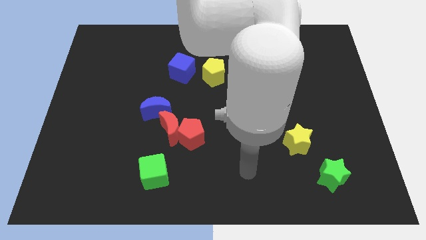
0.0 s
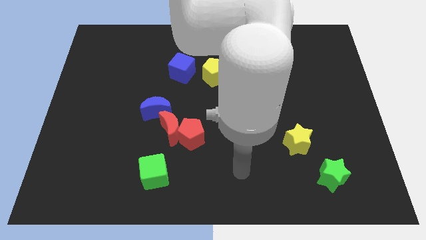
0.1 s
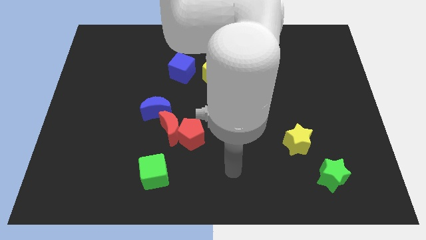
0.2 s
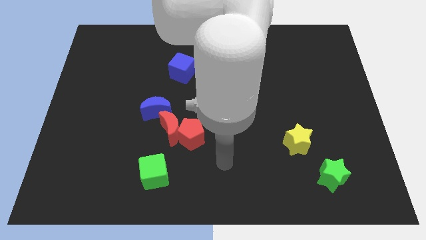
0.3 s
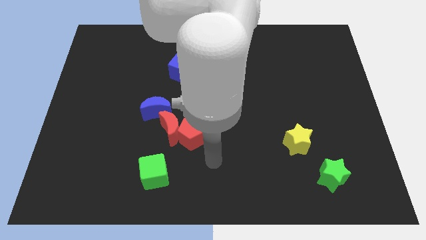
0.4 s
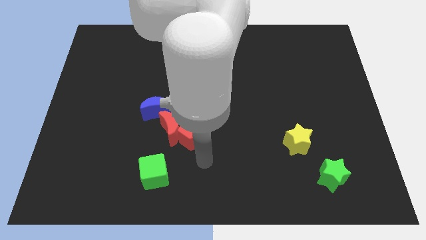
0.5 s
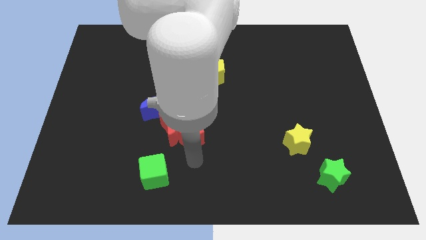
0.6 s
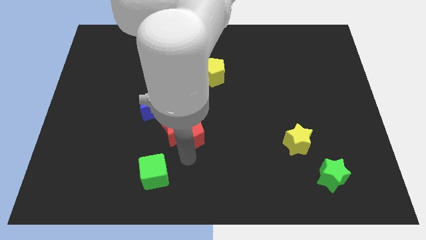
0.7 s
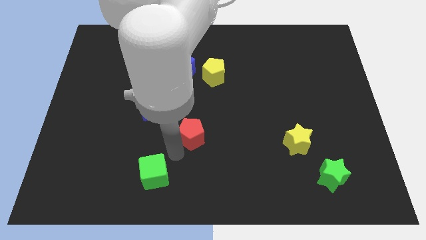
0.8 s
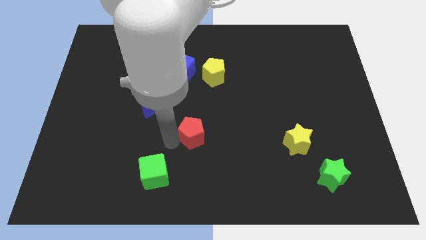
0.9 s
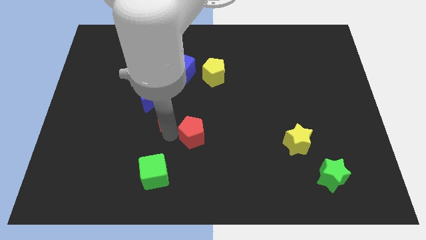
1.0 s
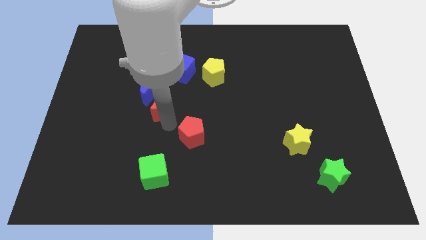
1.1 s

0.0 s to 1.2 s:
separate the red pentagon from the red moon

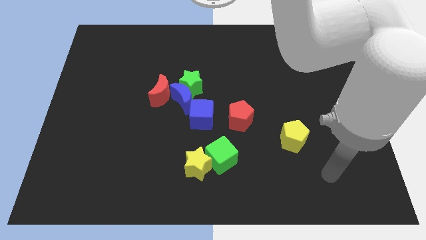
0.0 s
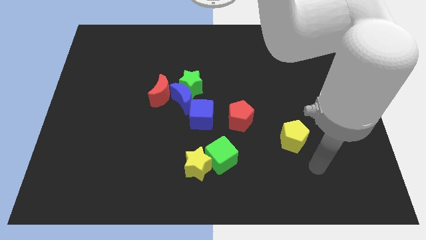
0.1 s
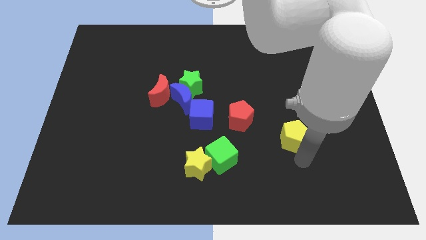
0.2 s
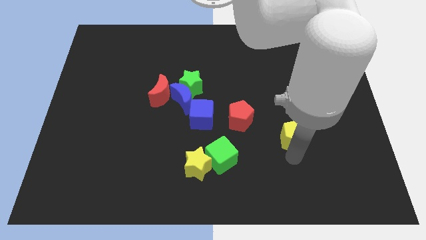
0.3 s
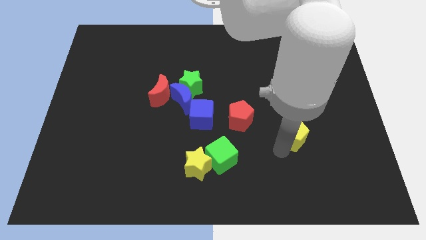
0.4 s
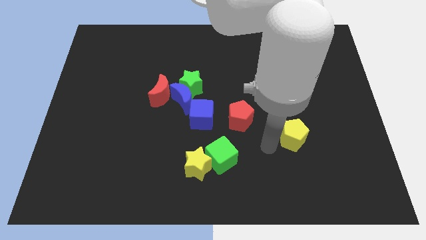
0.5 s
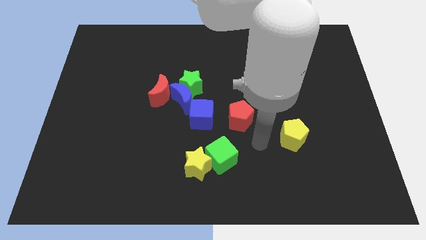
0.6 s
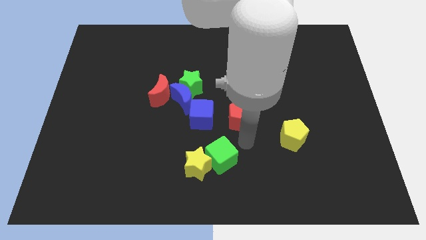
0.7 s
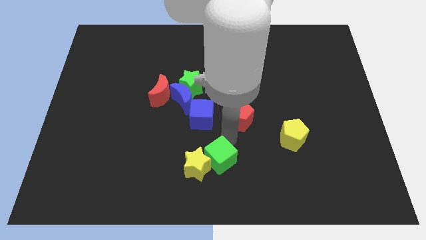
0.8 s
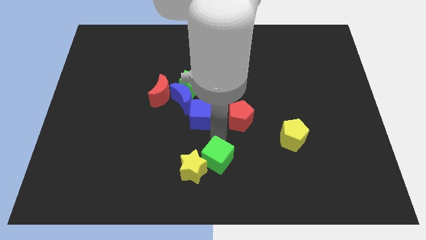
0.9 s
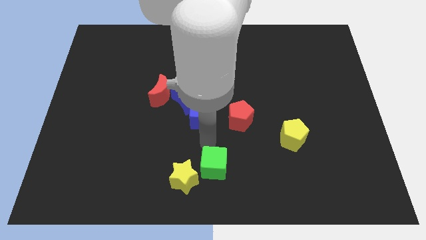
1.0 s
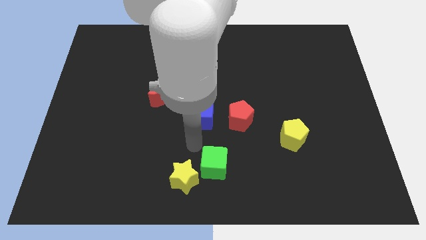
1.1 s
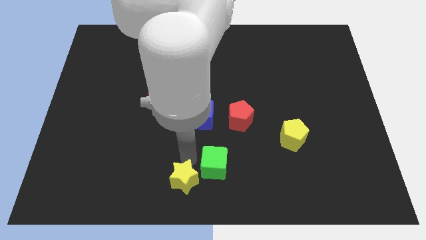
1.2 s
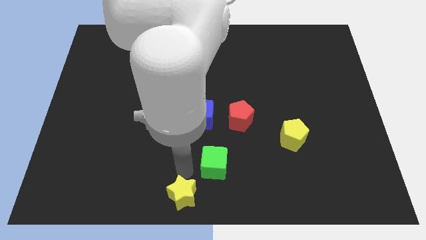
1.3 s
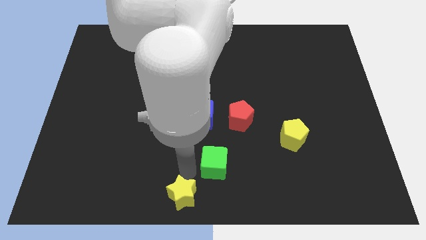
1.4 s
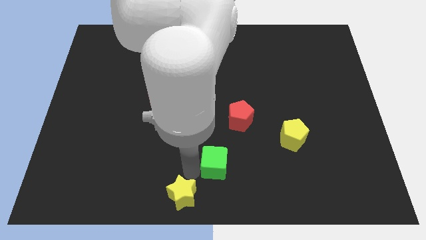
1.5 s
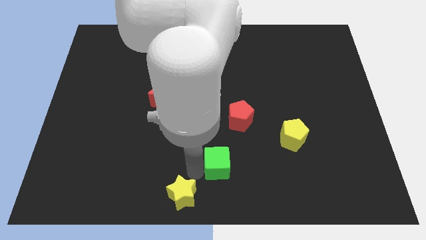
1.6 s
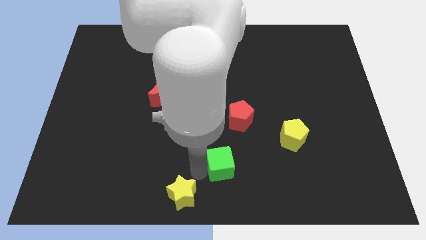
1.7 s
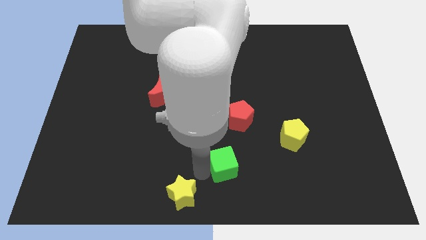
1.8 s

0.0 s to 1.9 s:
separate the green cube from the yellow star

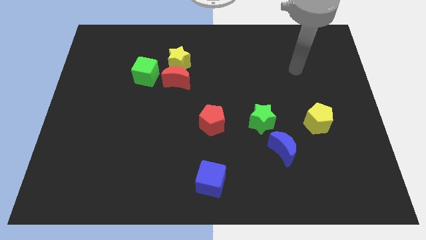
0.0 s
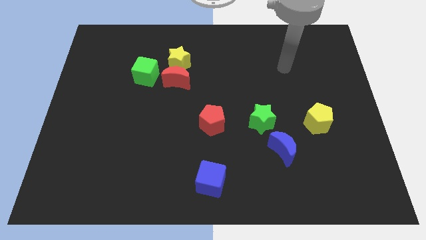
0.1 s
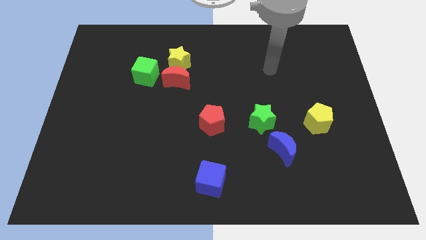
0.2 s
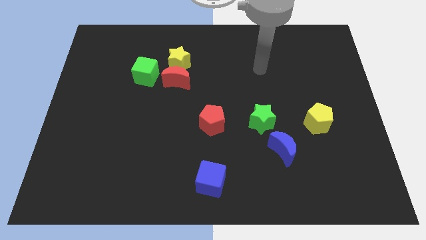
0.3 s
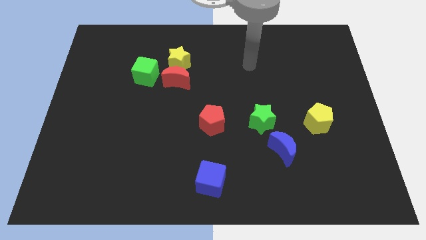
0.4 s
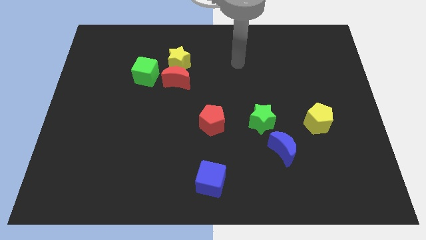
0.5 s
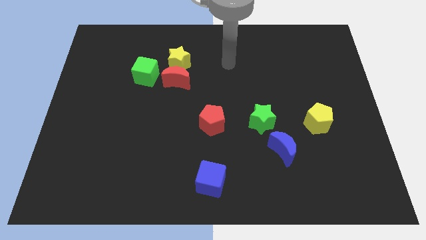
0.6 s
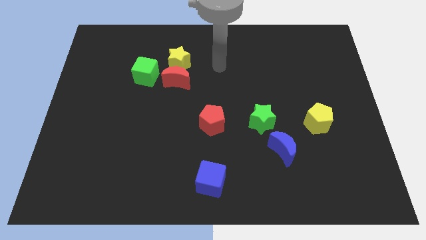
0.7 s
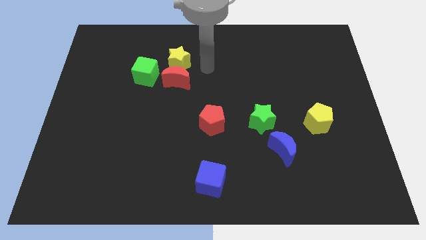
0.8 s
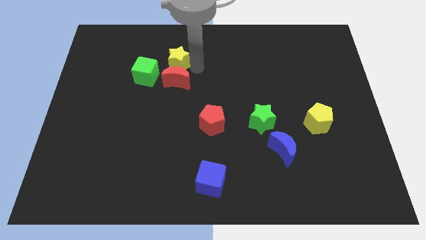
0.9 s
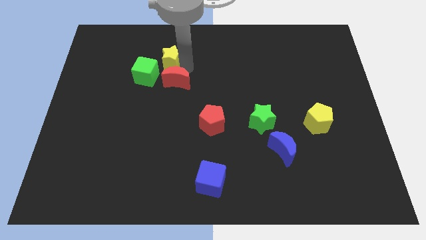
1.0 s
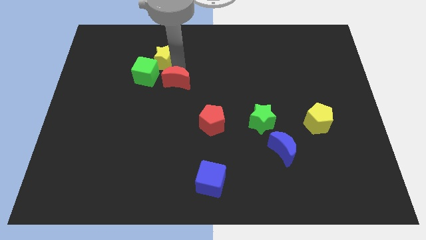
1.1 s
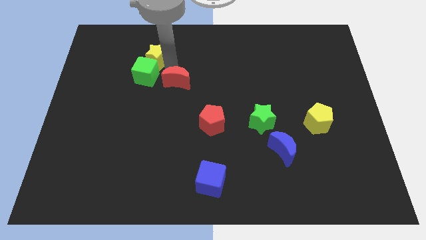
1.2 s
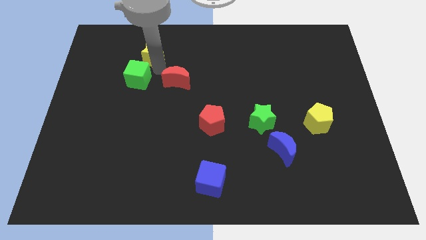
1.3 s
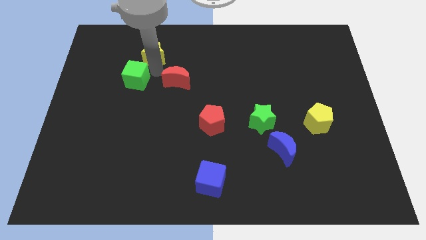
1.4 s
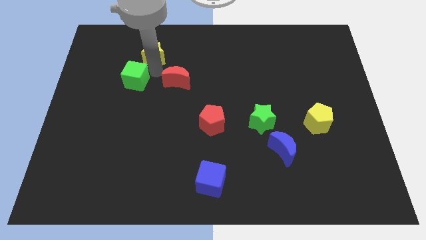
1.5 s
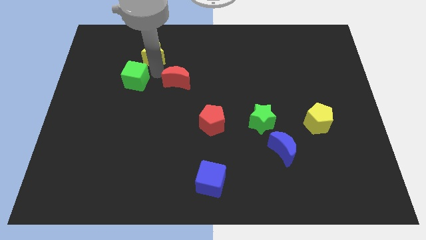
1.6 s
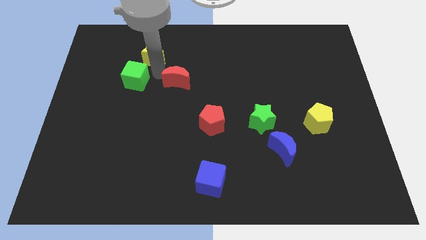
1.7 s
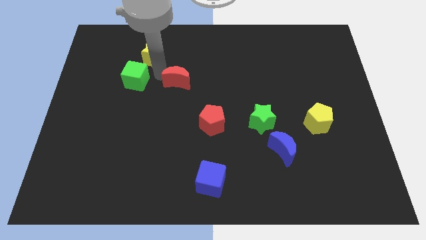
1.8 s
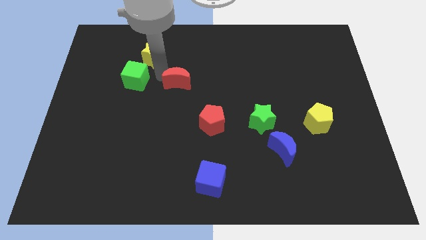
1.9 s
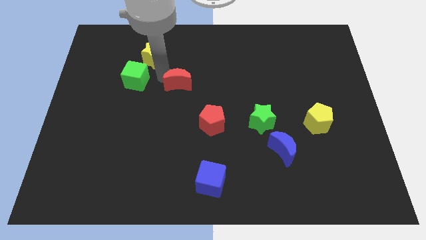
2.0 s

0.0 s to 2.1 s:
move the red moon away from the yellow star and green cube

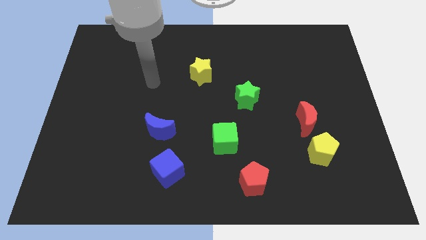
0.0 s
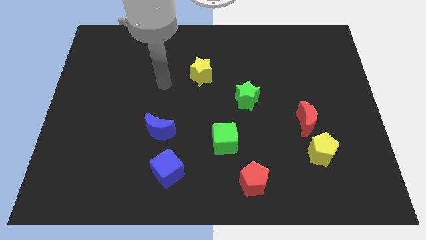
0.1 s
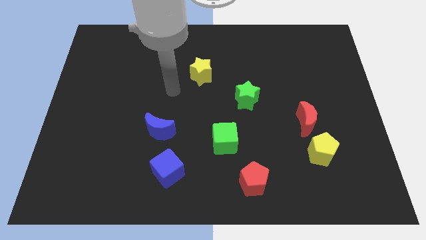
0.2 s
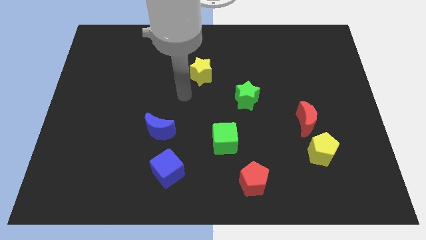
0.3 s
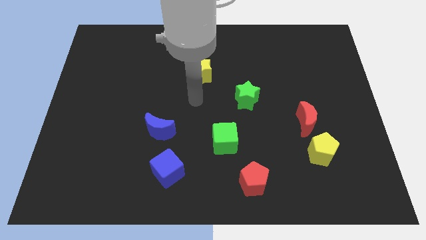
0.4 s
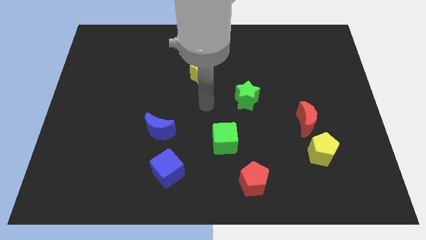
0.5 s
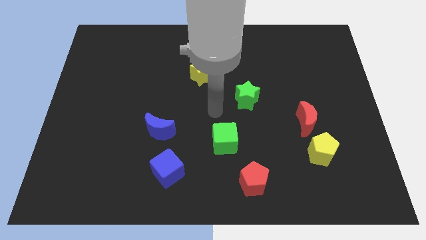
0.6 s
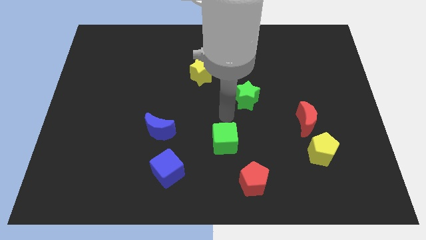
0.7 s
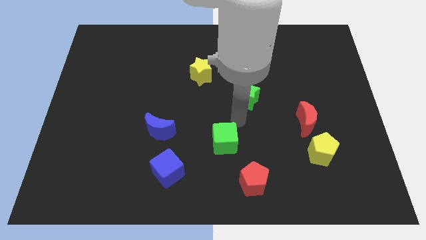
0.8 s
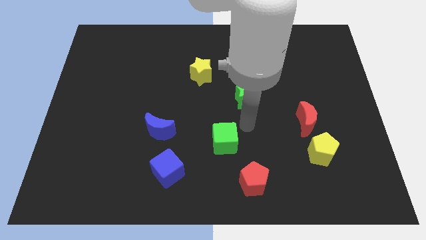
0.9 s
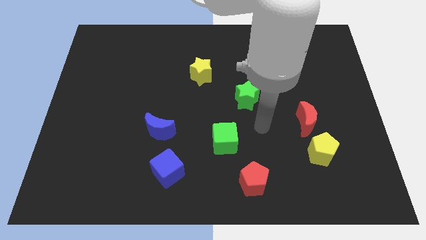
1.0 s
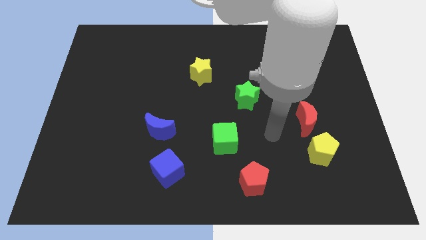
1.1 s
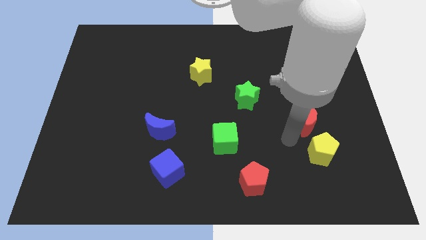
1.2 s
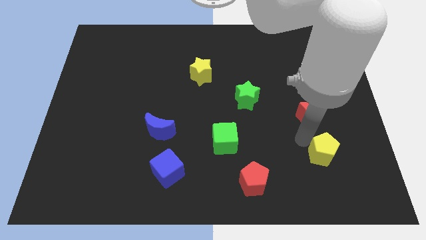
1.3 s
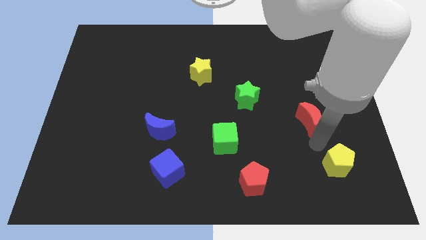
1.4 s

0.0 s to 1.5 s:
separate the red moon from the yellow pentagon

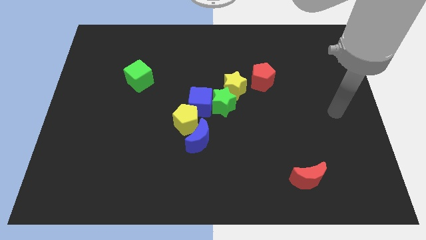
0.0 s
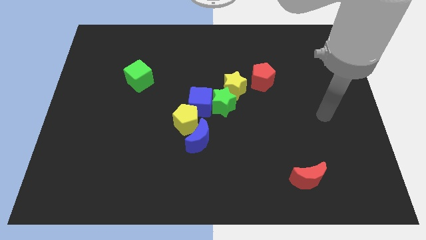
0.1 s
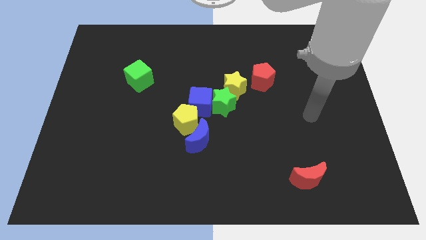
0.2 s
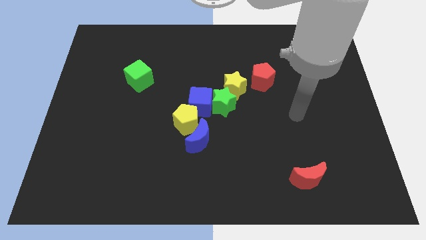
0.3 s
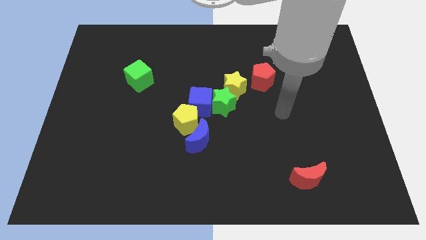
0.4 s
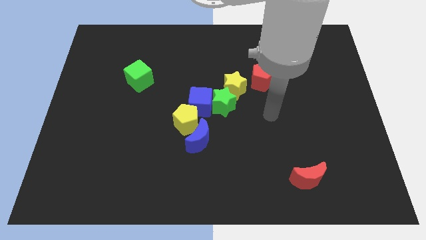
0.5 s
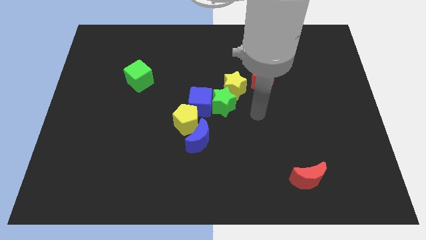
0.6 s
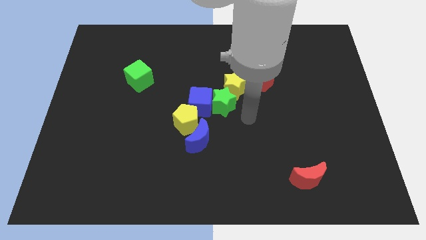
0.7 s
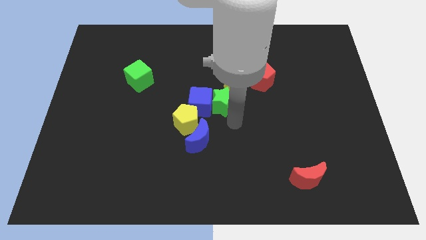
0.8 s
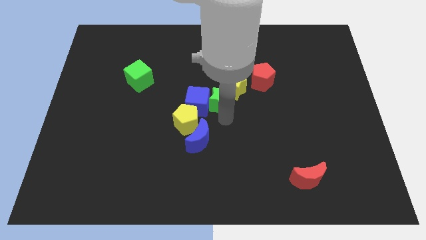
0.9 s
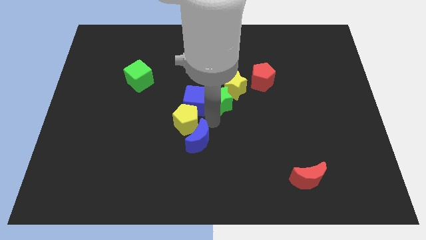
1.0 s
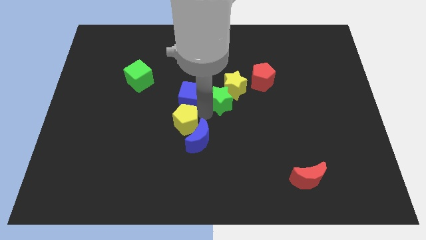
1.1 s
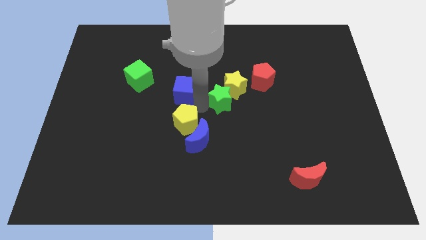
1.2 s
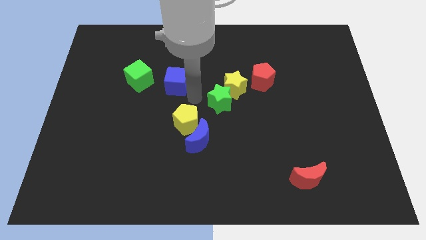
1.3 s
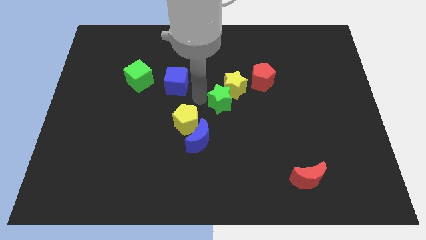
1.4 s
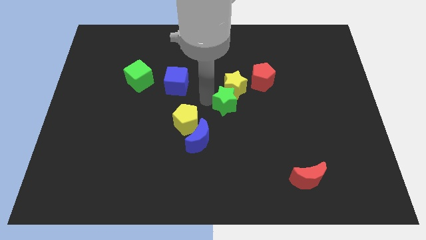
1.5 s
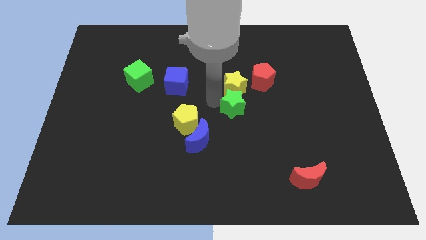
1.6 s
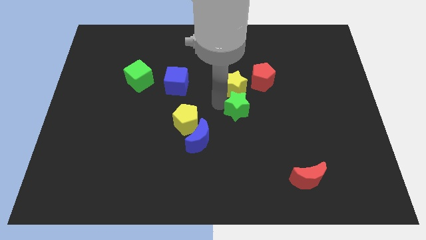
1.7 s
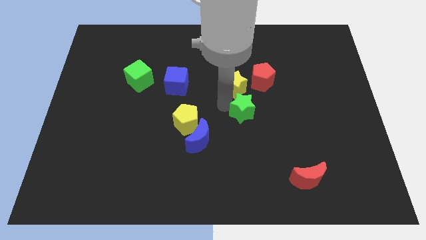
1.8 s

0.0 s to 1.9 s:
move the green star away from the clump

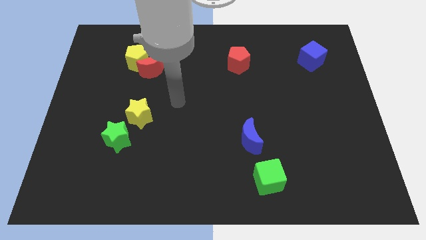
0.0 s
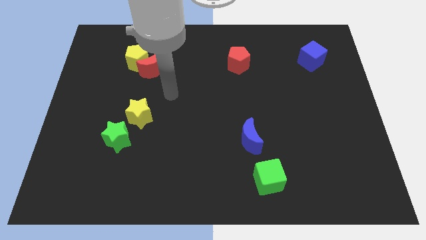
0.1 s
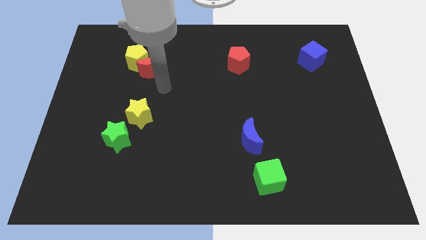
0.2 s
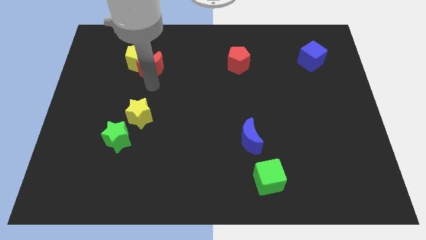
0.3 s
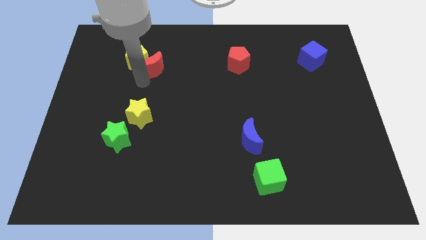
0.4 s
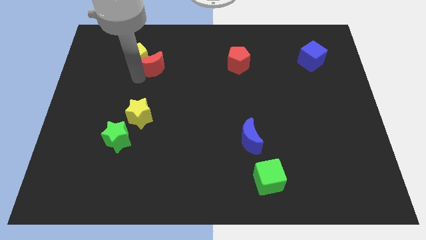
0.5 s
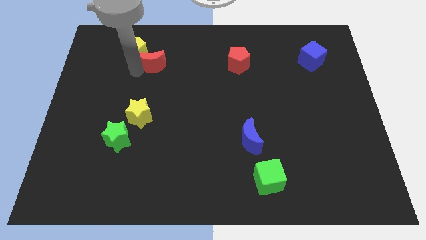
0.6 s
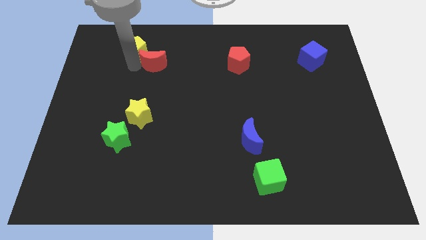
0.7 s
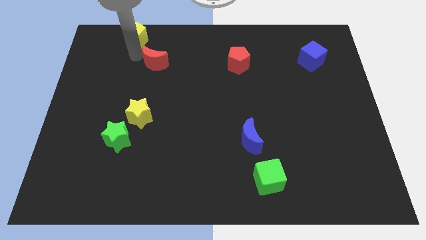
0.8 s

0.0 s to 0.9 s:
move the red moon away from the yellow pentagon
